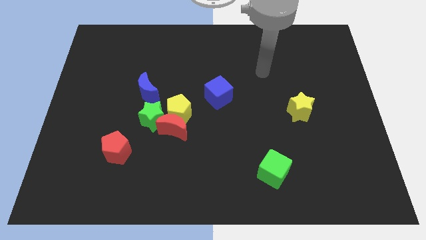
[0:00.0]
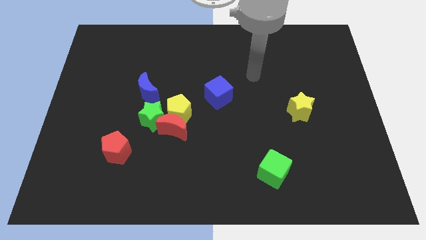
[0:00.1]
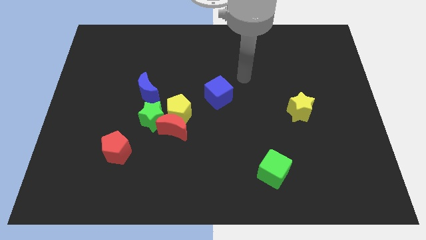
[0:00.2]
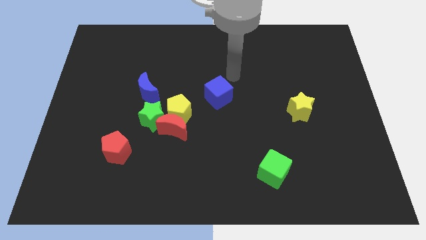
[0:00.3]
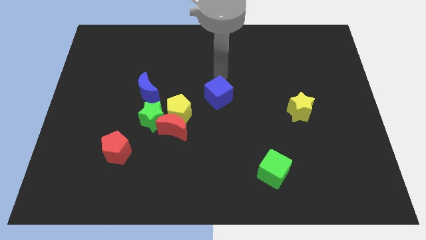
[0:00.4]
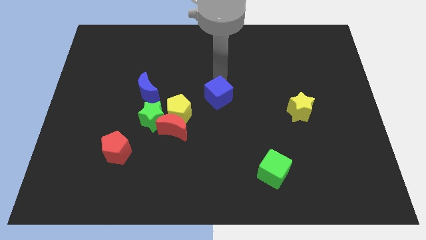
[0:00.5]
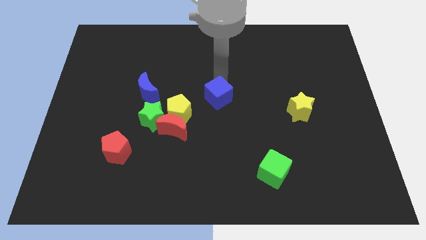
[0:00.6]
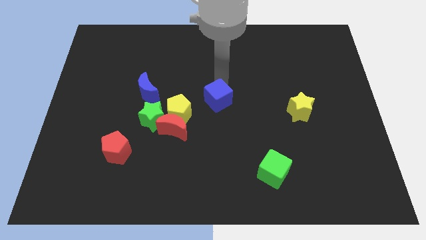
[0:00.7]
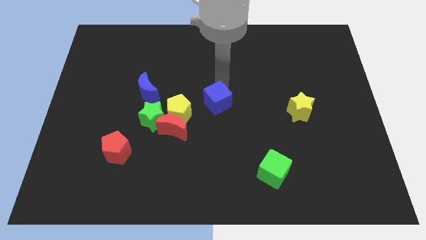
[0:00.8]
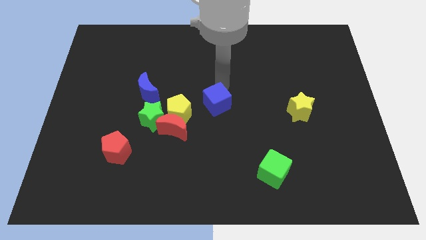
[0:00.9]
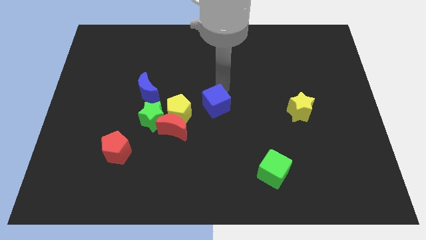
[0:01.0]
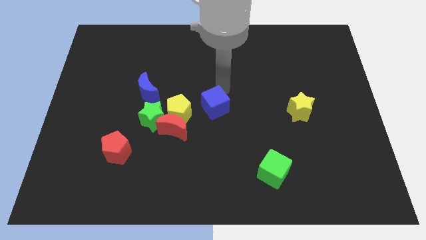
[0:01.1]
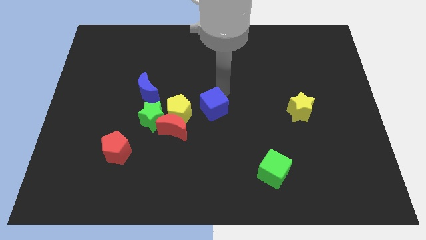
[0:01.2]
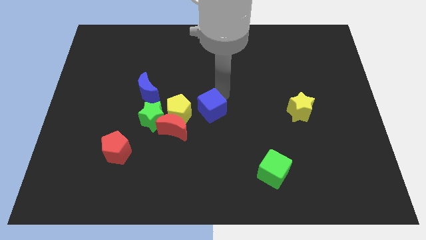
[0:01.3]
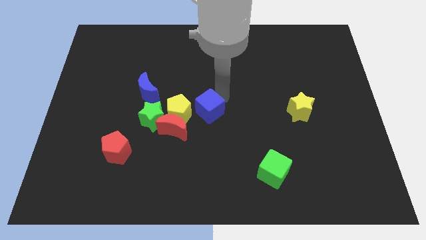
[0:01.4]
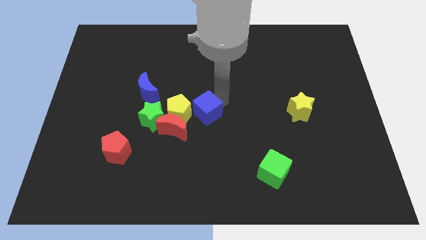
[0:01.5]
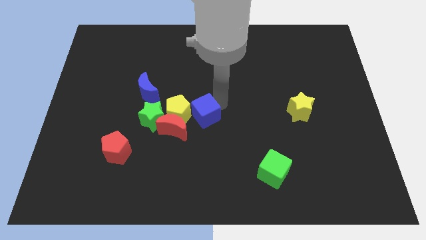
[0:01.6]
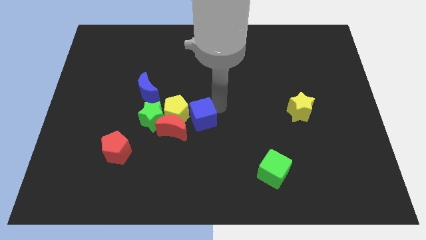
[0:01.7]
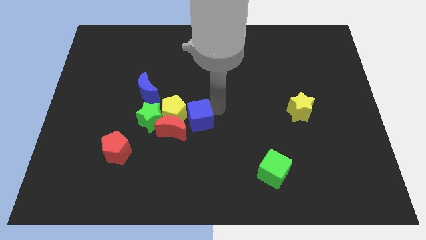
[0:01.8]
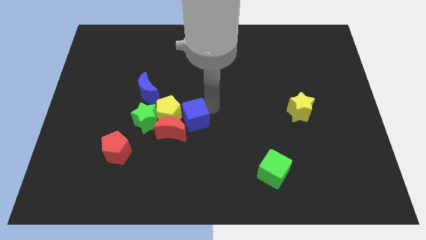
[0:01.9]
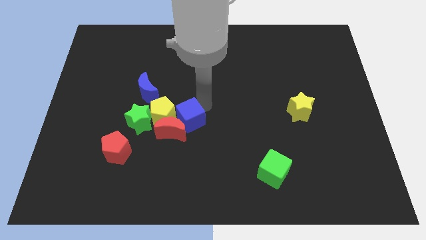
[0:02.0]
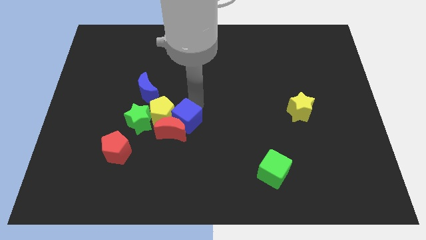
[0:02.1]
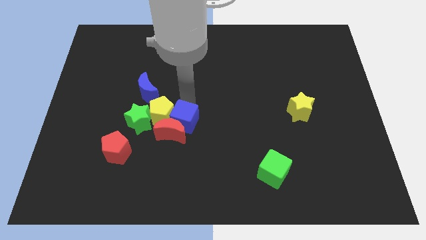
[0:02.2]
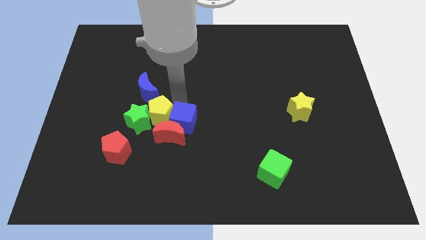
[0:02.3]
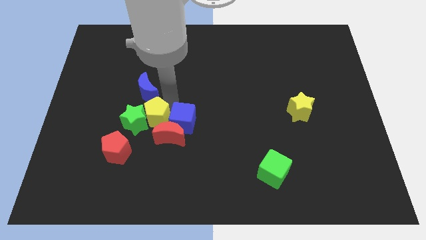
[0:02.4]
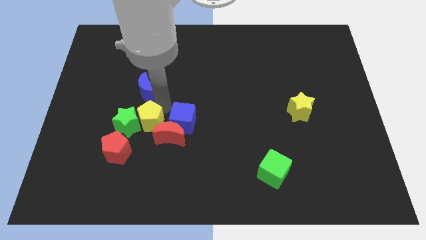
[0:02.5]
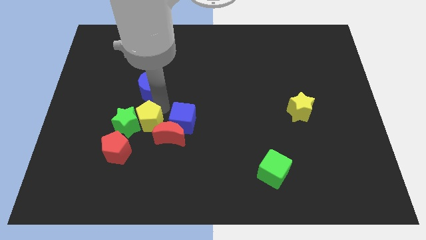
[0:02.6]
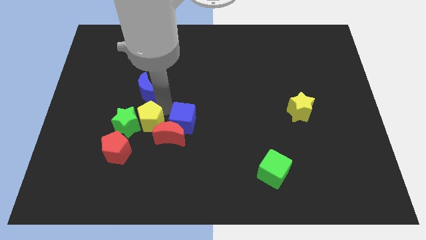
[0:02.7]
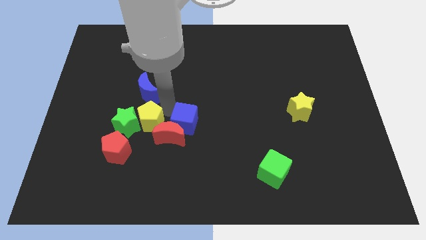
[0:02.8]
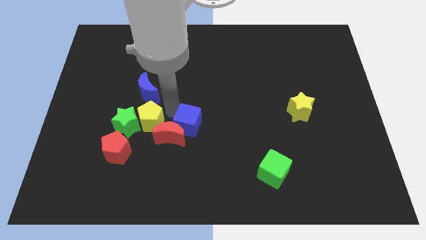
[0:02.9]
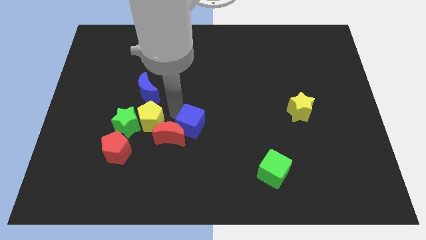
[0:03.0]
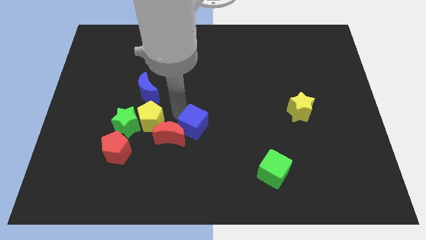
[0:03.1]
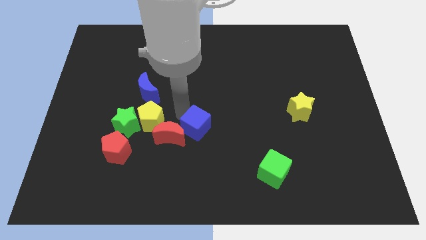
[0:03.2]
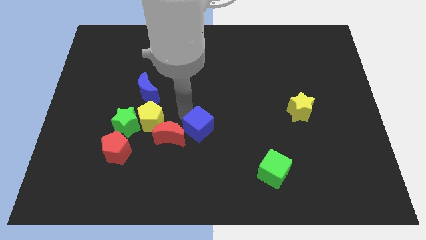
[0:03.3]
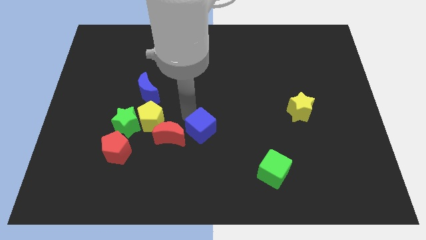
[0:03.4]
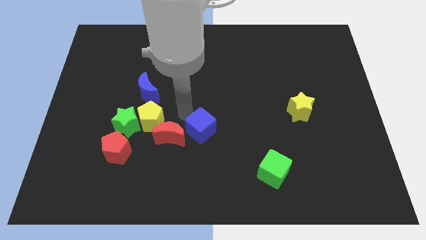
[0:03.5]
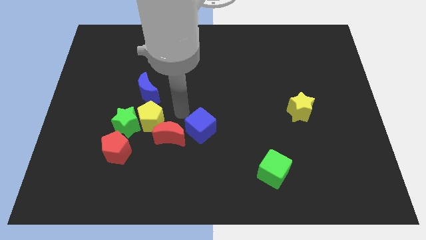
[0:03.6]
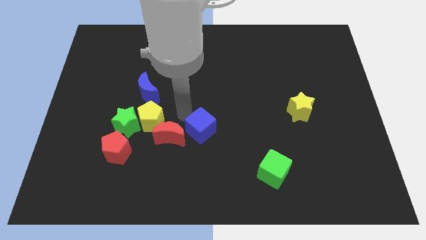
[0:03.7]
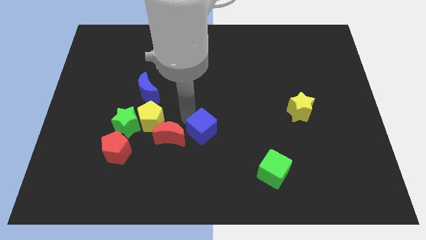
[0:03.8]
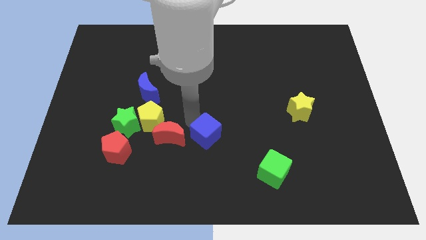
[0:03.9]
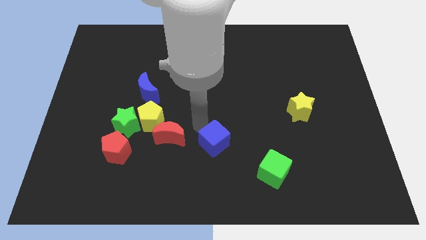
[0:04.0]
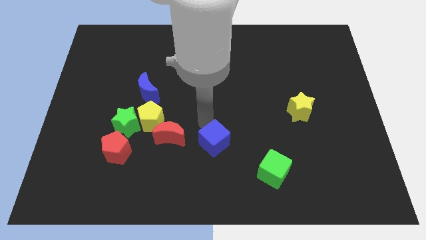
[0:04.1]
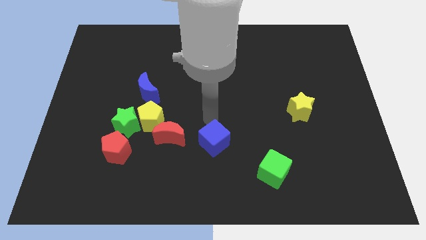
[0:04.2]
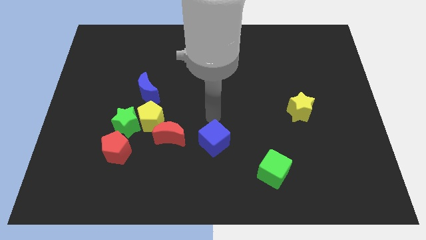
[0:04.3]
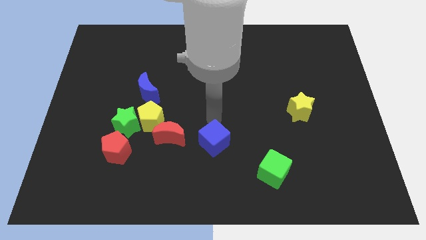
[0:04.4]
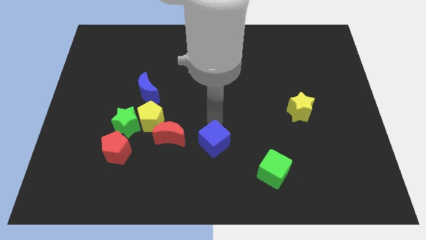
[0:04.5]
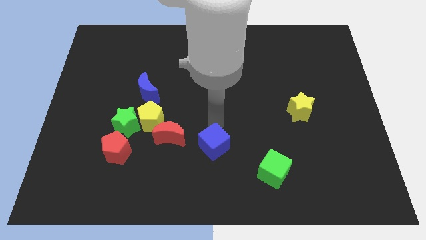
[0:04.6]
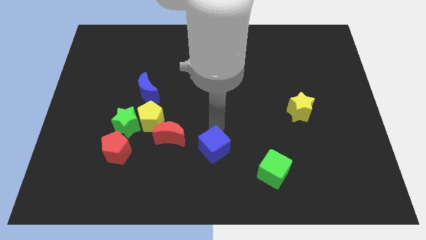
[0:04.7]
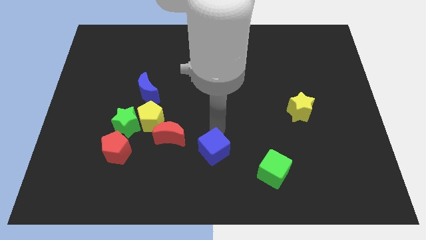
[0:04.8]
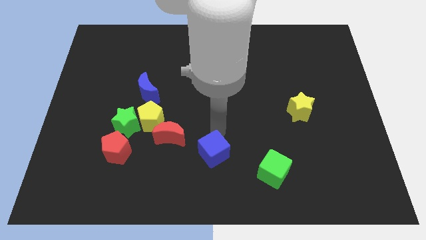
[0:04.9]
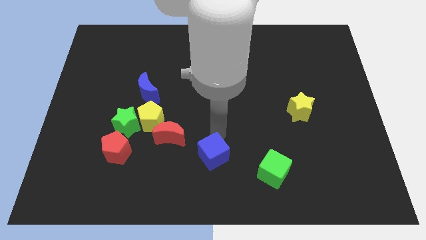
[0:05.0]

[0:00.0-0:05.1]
push the blue cube to the bottom side
